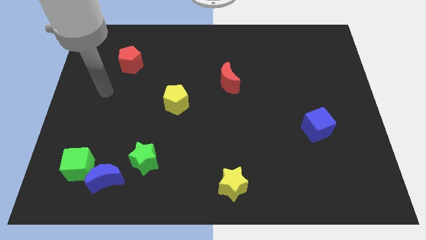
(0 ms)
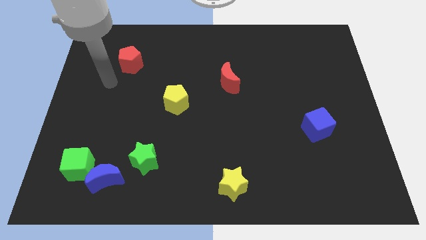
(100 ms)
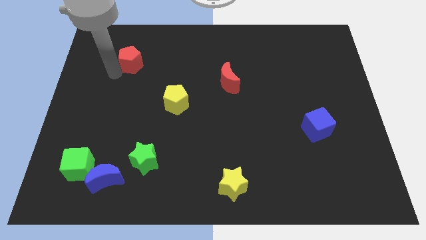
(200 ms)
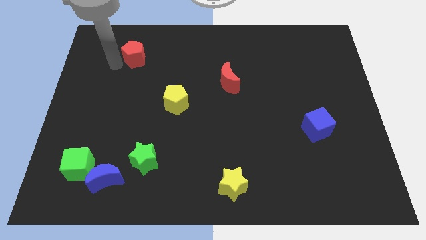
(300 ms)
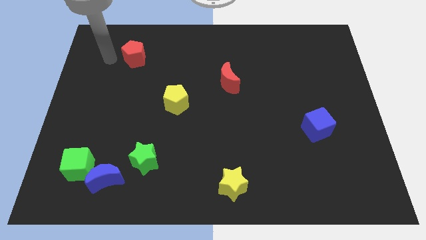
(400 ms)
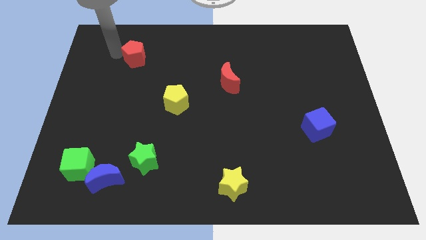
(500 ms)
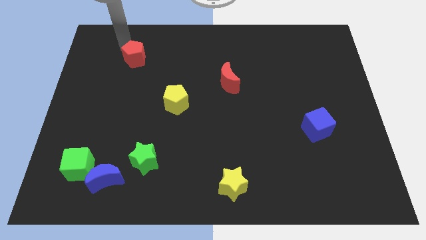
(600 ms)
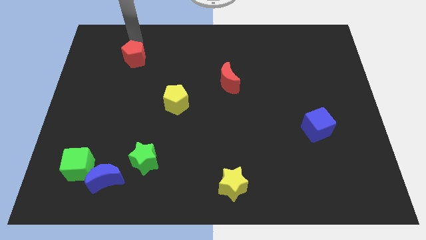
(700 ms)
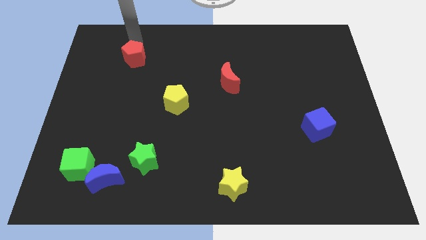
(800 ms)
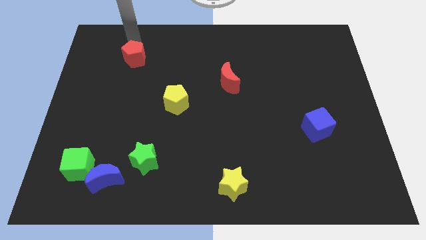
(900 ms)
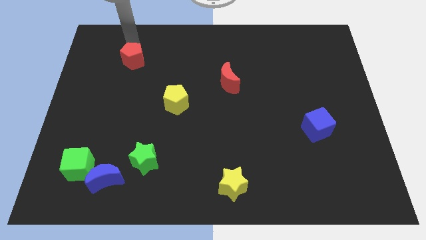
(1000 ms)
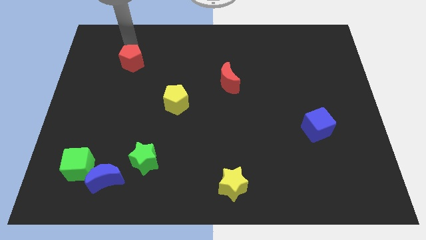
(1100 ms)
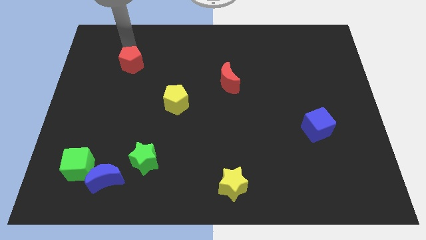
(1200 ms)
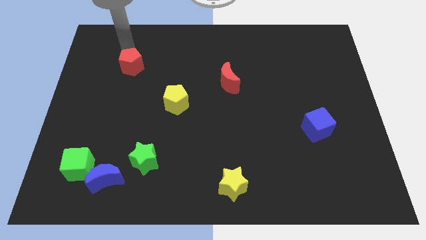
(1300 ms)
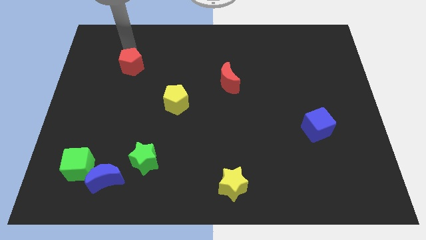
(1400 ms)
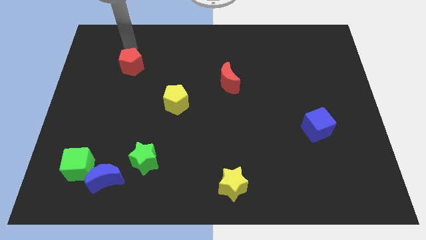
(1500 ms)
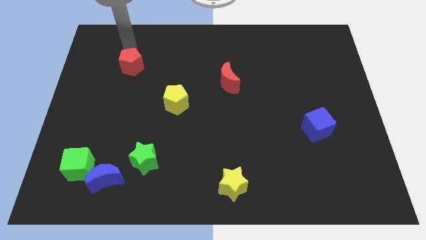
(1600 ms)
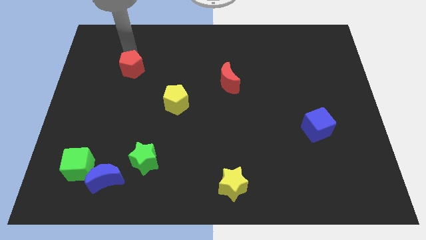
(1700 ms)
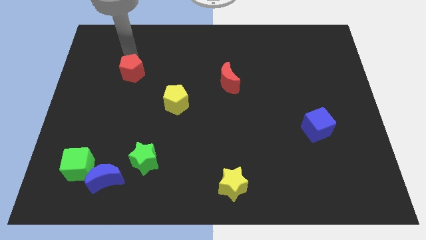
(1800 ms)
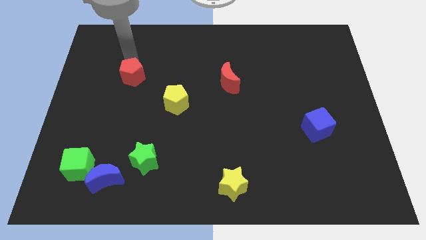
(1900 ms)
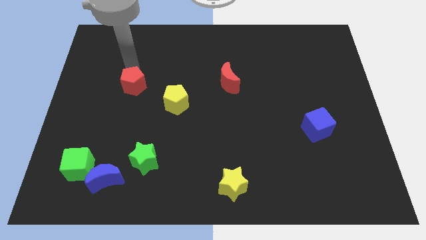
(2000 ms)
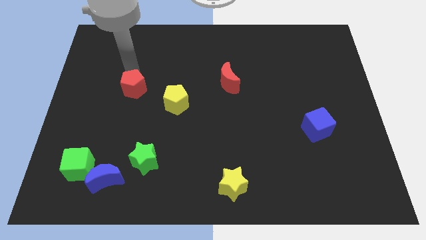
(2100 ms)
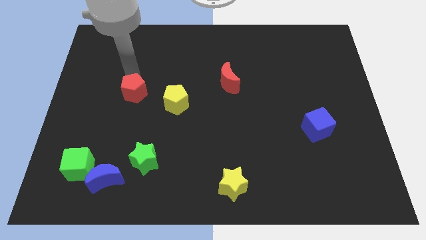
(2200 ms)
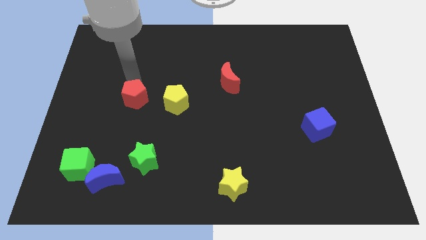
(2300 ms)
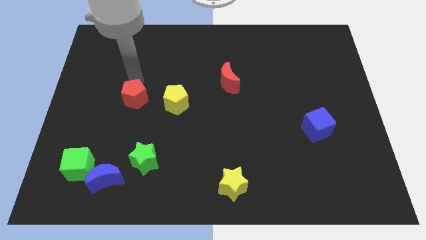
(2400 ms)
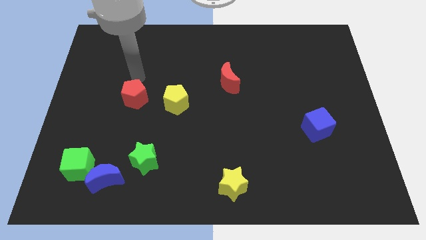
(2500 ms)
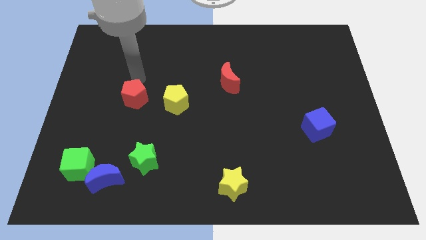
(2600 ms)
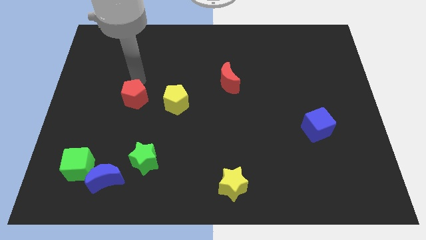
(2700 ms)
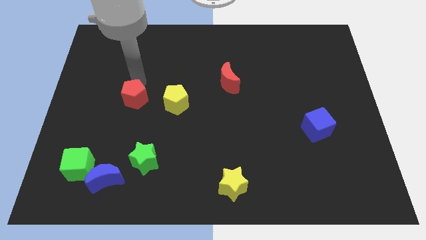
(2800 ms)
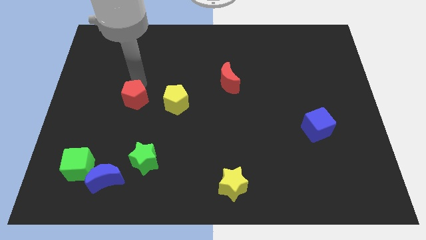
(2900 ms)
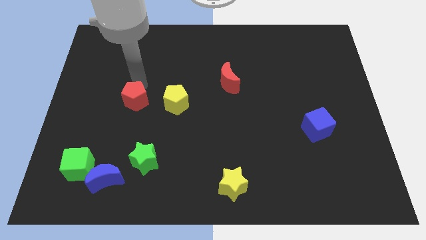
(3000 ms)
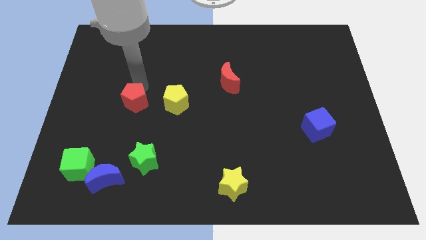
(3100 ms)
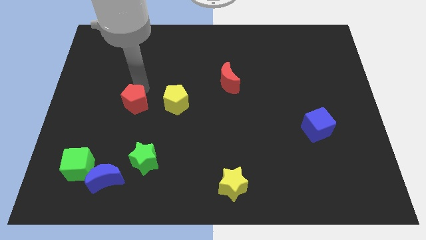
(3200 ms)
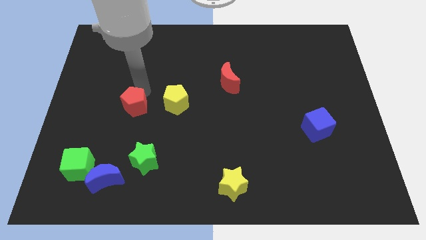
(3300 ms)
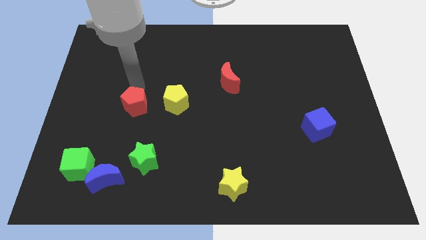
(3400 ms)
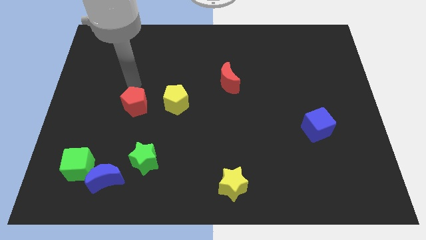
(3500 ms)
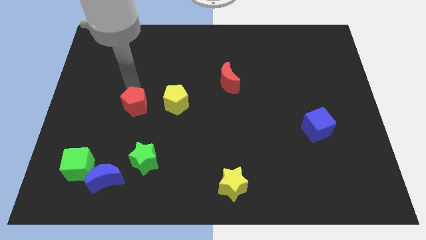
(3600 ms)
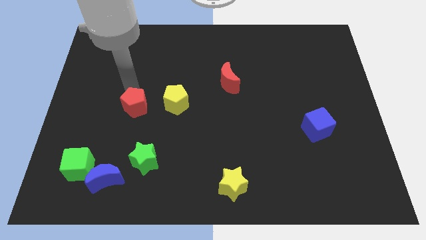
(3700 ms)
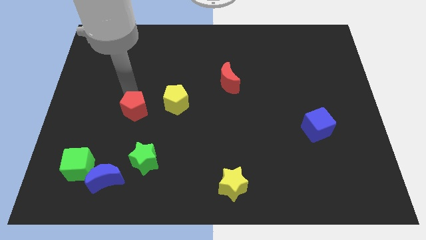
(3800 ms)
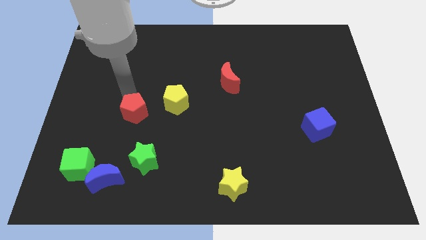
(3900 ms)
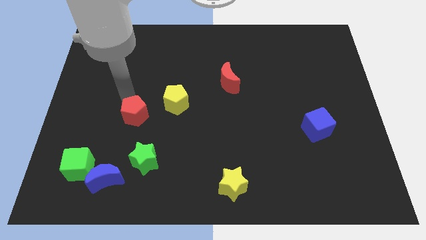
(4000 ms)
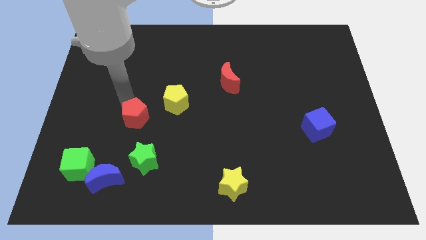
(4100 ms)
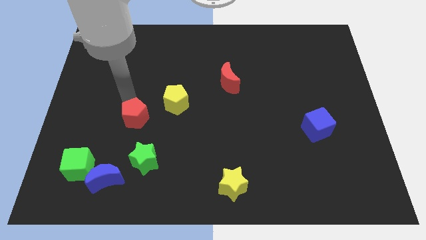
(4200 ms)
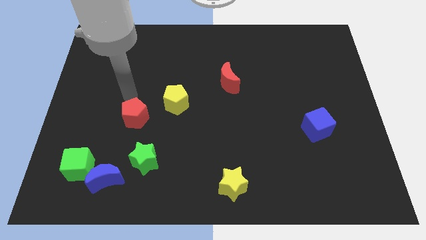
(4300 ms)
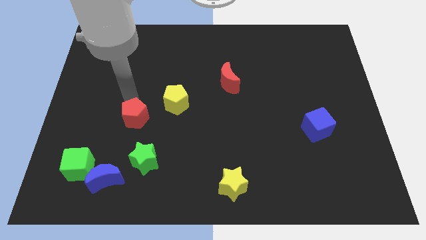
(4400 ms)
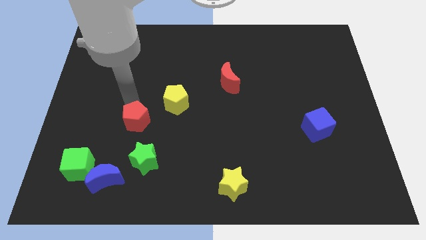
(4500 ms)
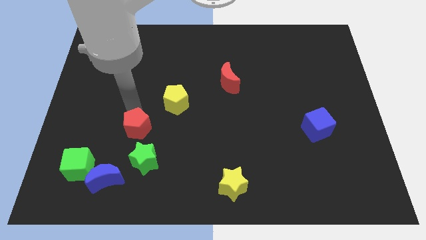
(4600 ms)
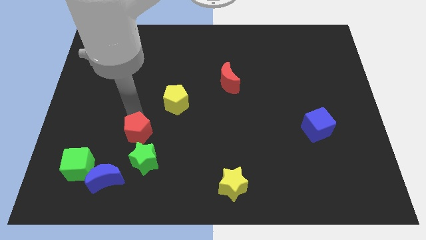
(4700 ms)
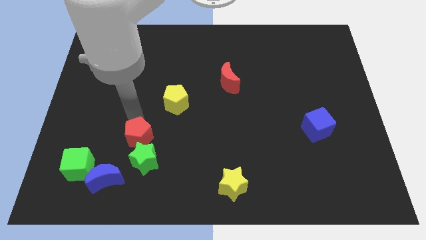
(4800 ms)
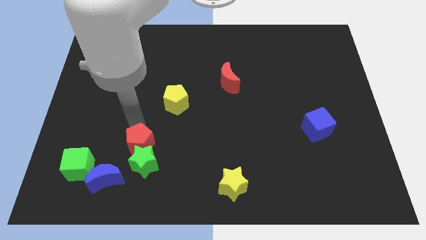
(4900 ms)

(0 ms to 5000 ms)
put the red pentagon close to the green star

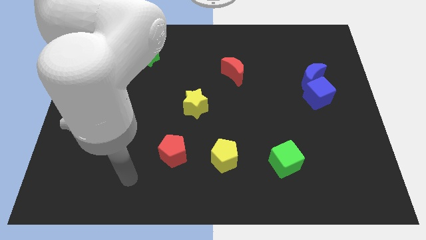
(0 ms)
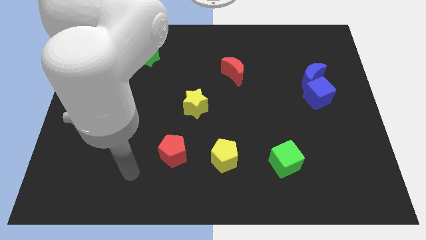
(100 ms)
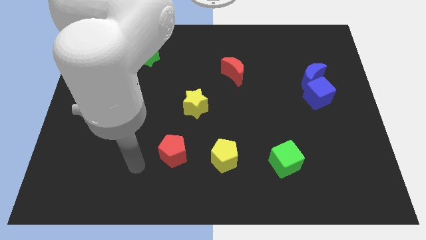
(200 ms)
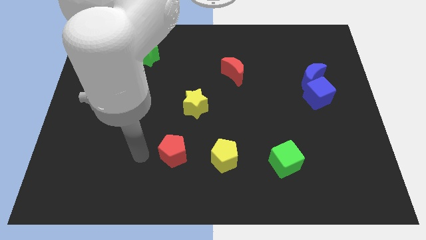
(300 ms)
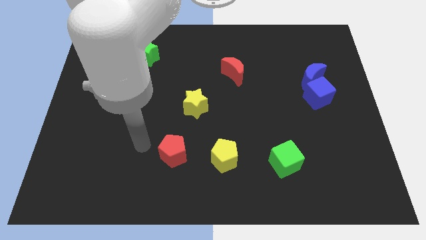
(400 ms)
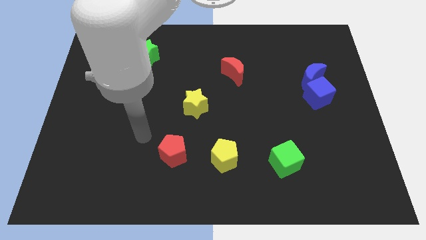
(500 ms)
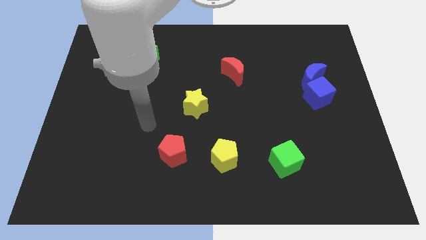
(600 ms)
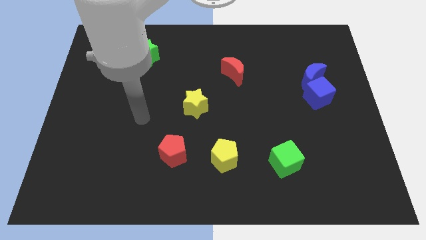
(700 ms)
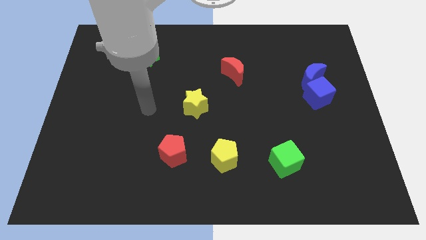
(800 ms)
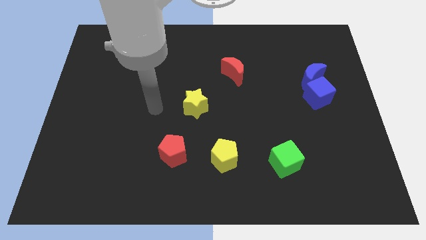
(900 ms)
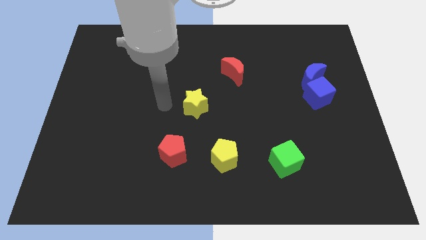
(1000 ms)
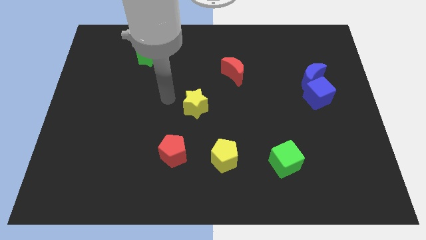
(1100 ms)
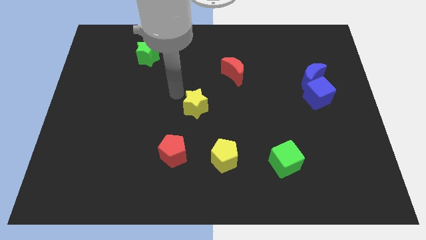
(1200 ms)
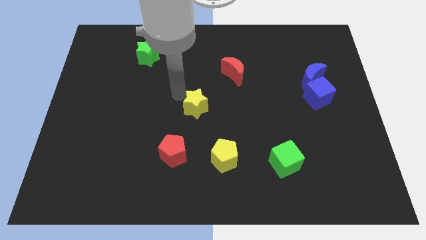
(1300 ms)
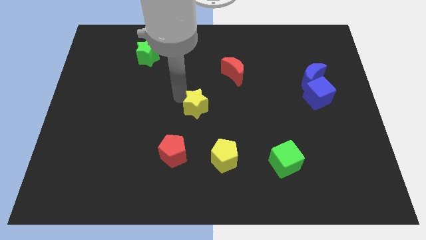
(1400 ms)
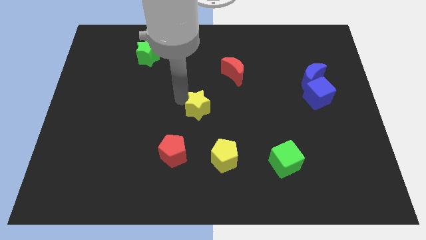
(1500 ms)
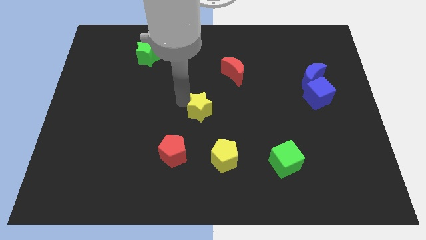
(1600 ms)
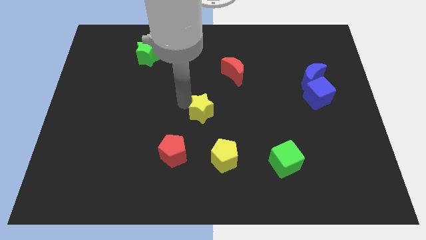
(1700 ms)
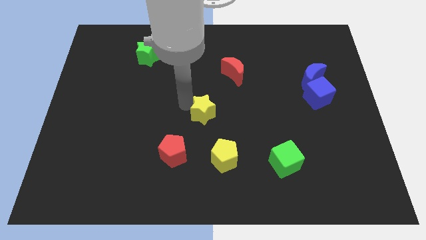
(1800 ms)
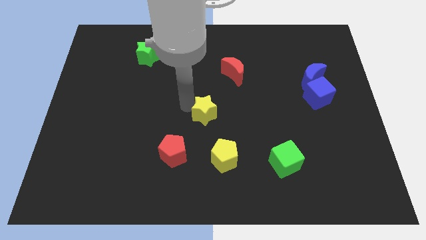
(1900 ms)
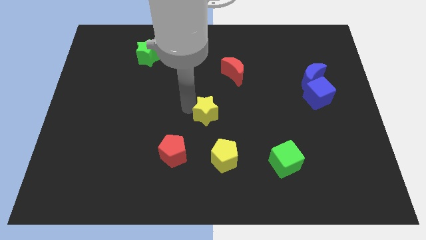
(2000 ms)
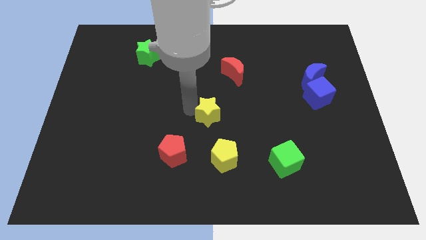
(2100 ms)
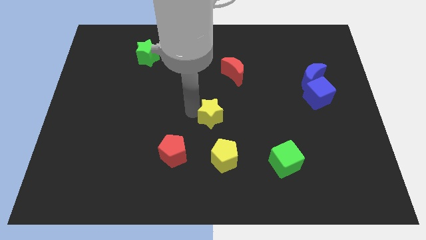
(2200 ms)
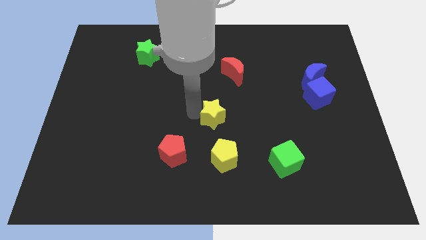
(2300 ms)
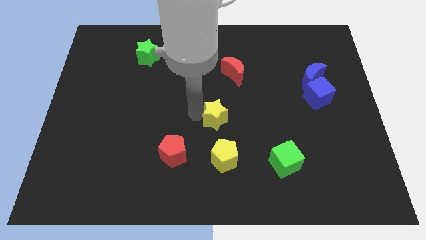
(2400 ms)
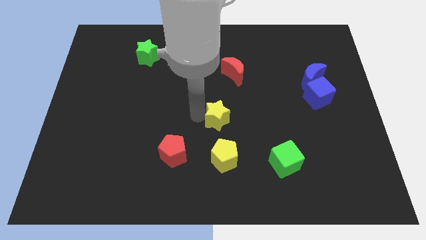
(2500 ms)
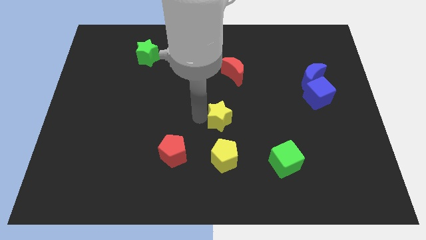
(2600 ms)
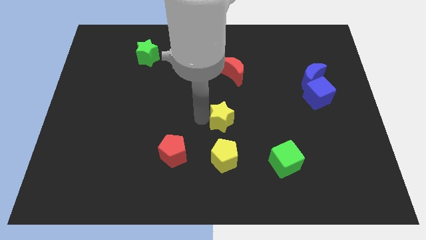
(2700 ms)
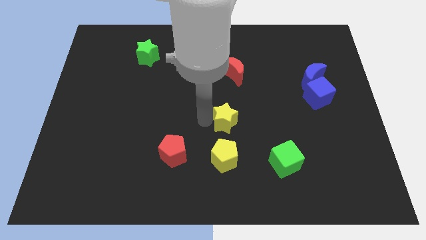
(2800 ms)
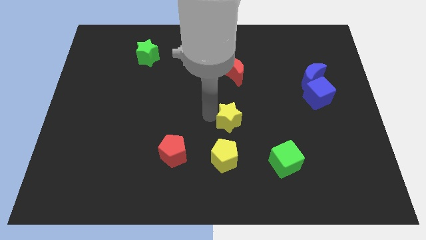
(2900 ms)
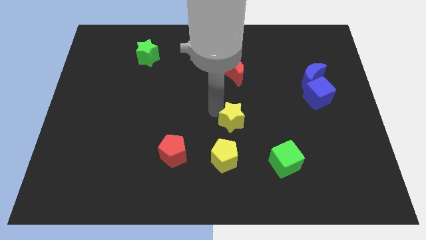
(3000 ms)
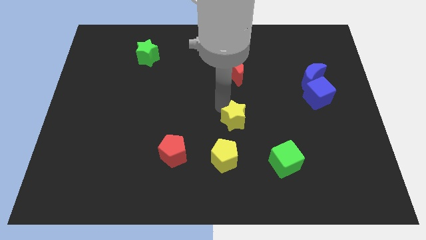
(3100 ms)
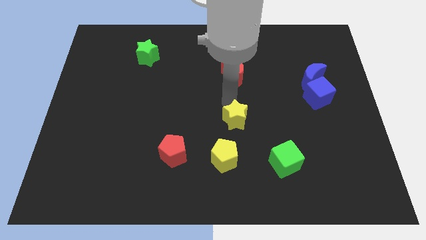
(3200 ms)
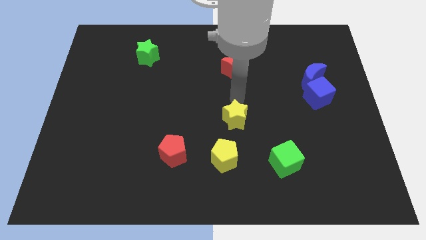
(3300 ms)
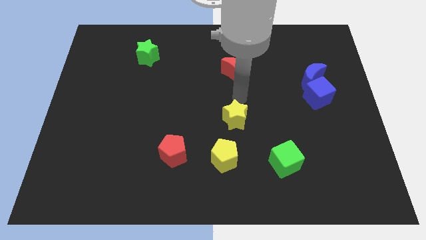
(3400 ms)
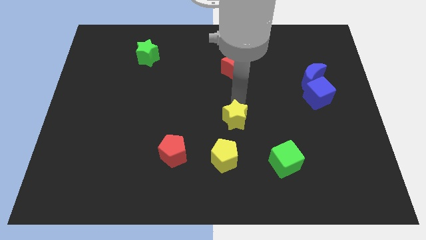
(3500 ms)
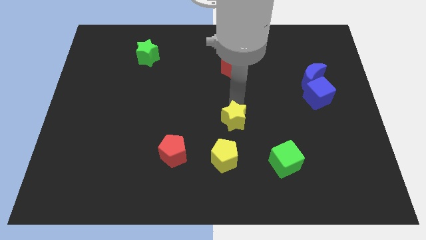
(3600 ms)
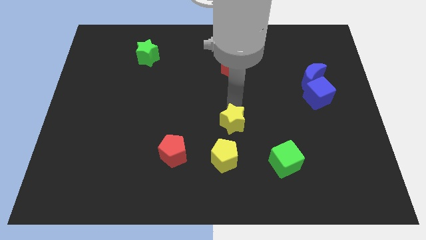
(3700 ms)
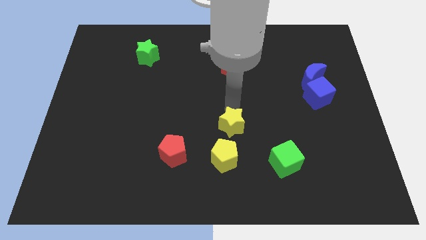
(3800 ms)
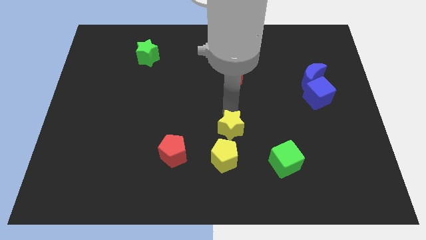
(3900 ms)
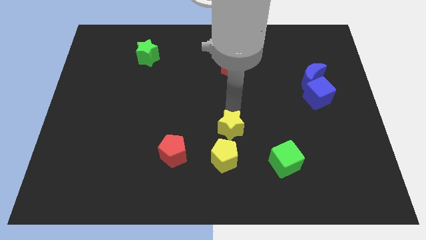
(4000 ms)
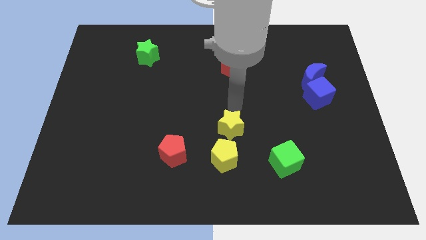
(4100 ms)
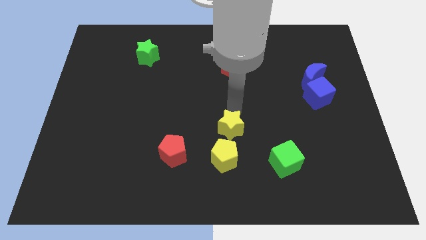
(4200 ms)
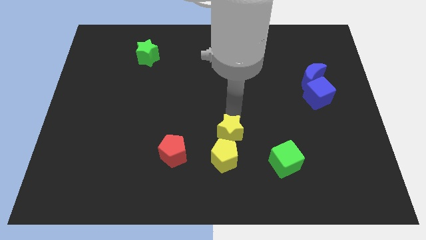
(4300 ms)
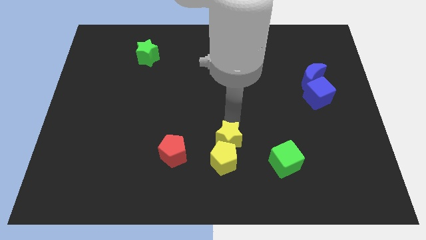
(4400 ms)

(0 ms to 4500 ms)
move the yellow star next to the yellow pentagon
